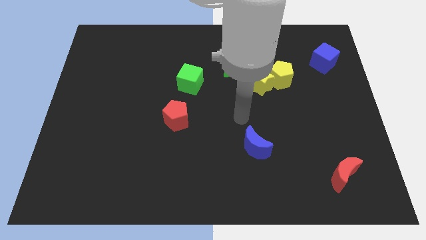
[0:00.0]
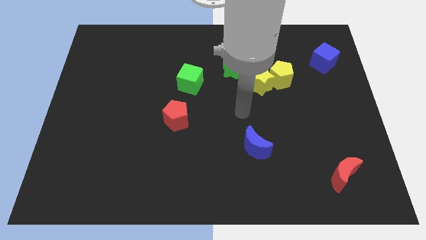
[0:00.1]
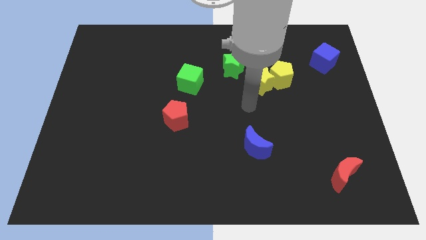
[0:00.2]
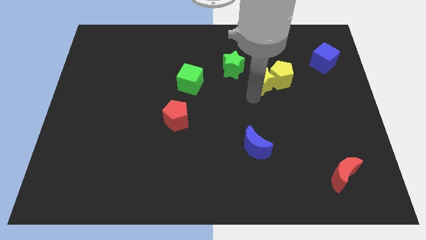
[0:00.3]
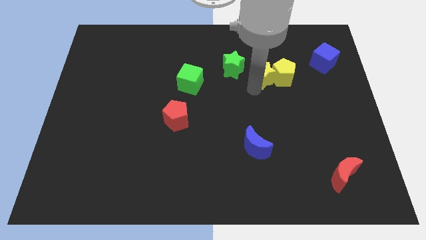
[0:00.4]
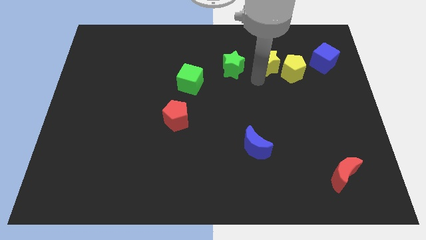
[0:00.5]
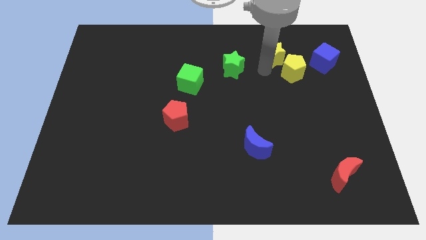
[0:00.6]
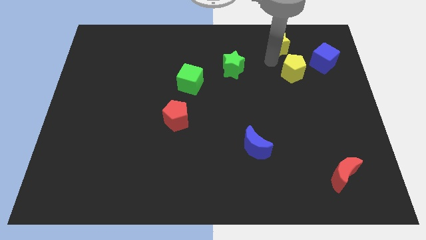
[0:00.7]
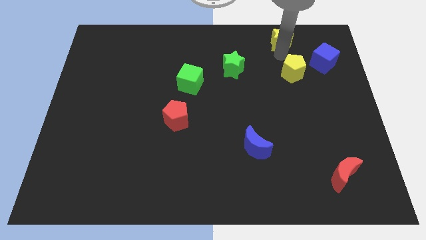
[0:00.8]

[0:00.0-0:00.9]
pull the yellow pentagon apart from the yellow star

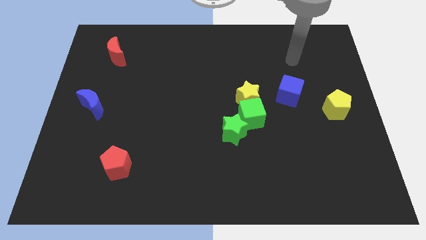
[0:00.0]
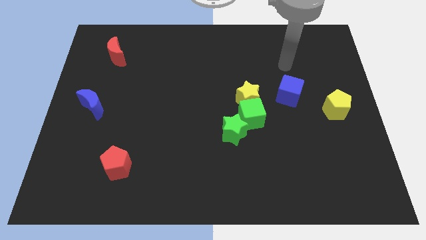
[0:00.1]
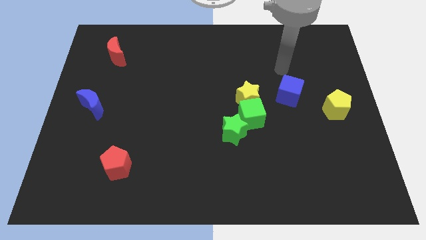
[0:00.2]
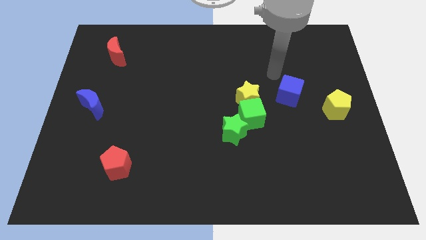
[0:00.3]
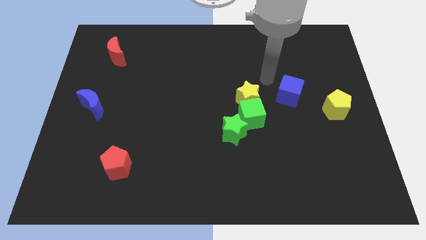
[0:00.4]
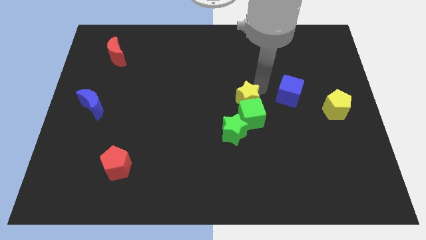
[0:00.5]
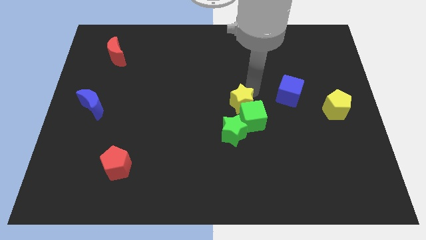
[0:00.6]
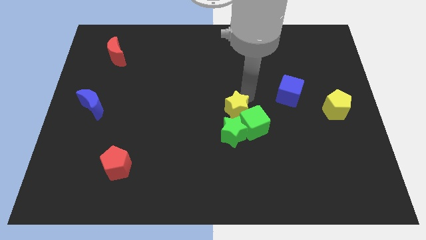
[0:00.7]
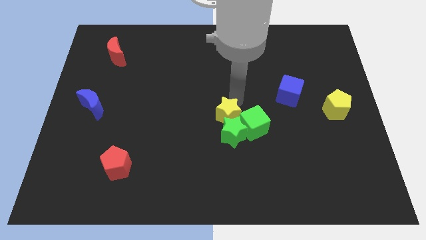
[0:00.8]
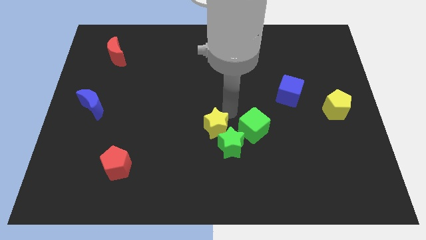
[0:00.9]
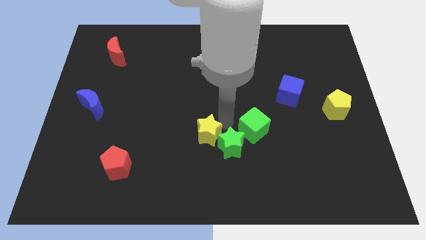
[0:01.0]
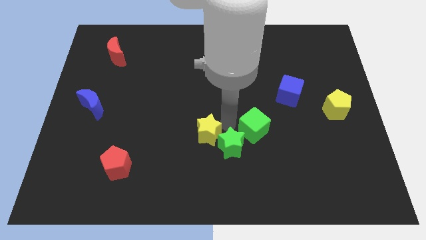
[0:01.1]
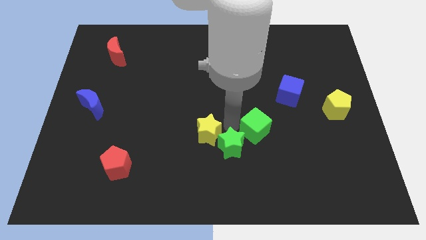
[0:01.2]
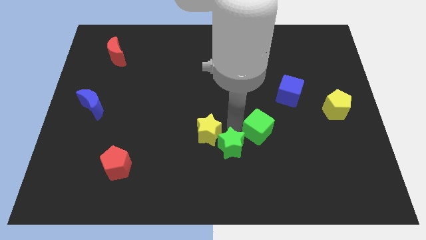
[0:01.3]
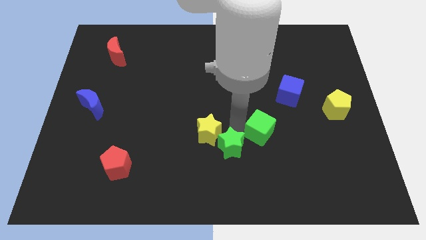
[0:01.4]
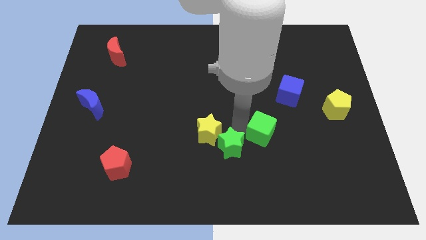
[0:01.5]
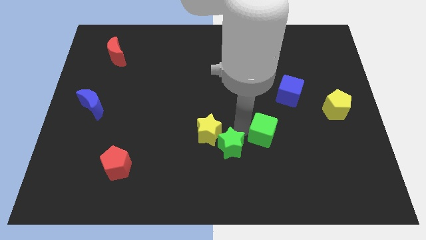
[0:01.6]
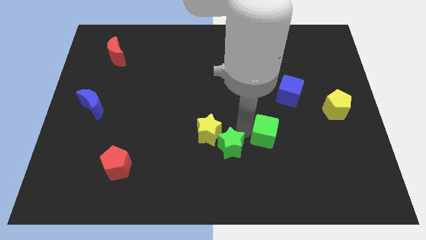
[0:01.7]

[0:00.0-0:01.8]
pull the green cube apart from the yellow star and green star

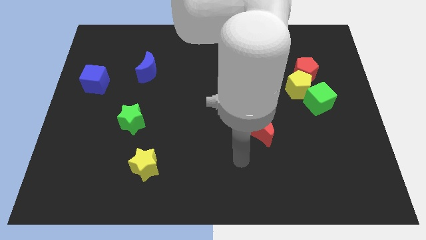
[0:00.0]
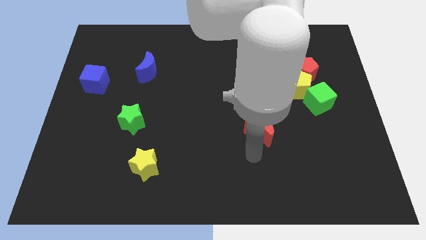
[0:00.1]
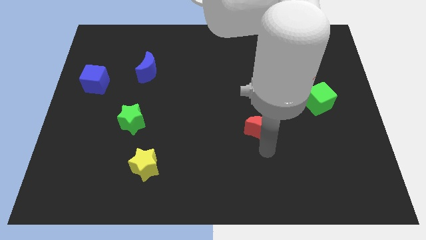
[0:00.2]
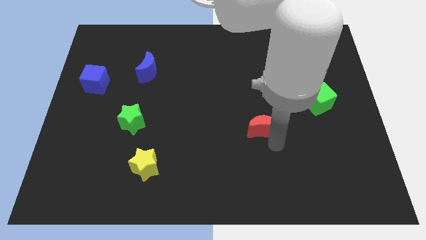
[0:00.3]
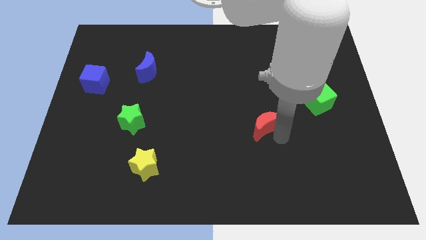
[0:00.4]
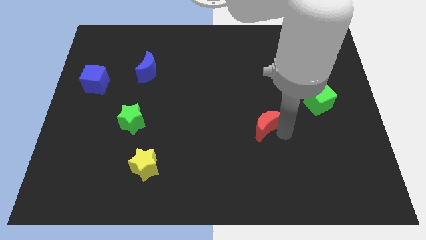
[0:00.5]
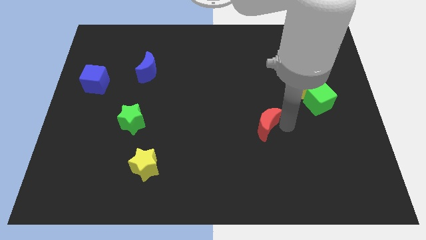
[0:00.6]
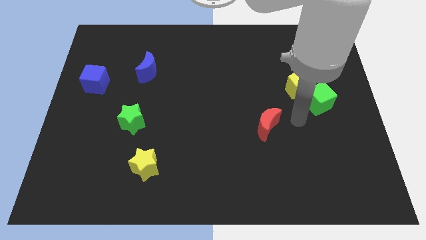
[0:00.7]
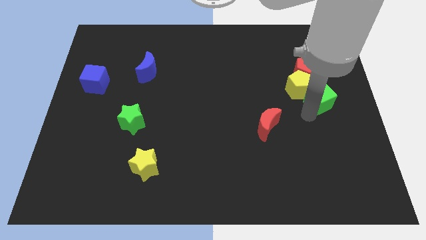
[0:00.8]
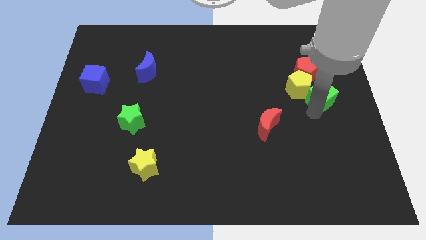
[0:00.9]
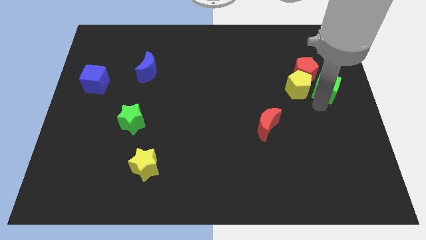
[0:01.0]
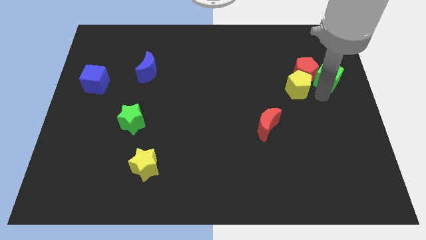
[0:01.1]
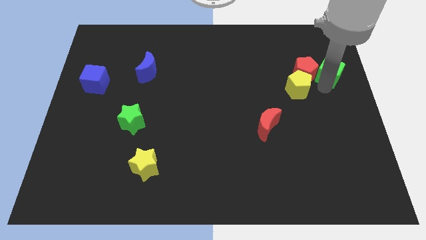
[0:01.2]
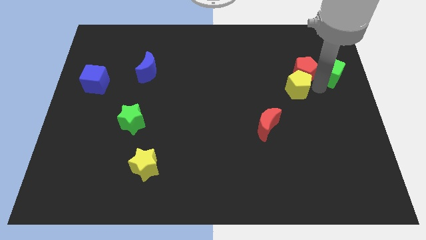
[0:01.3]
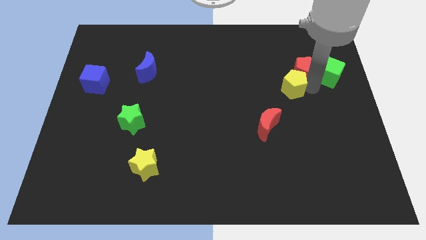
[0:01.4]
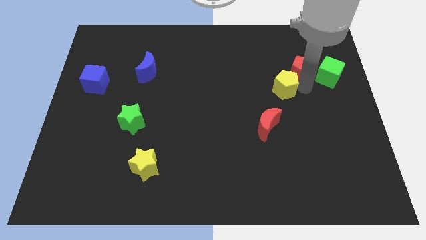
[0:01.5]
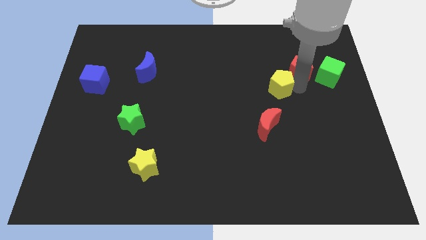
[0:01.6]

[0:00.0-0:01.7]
pull the yellow pentagon apart from the red pentagon and green cube

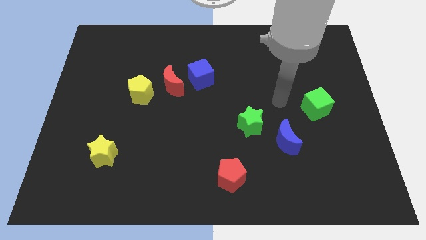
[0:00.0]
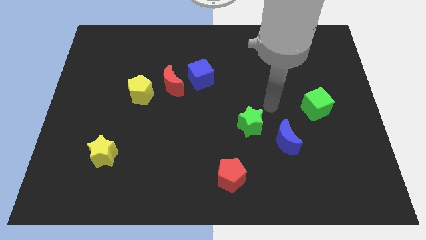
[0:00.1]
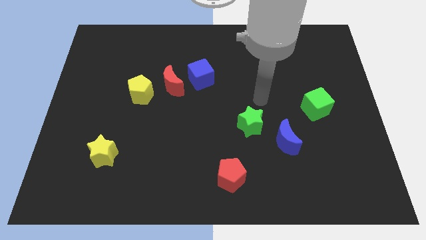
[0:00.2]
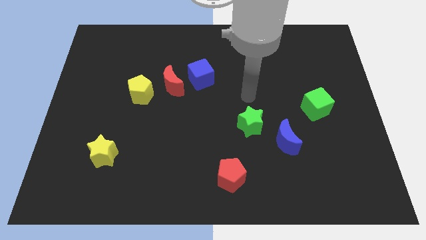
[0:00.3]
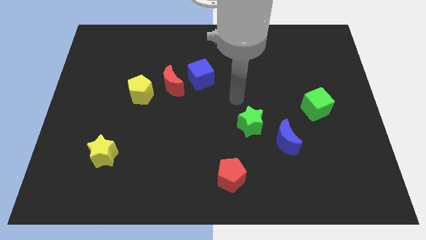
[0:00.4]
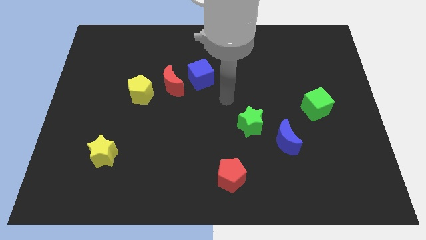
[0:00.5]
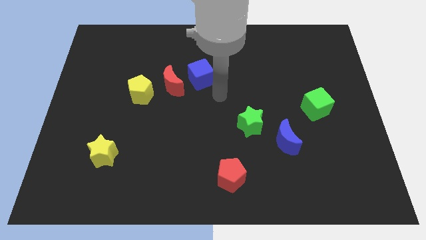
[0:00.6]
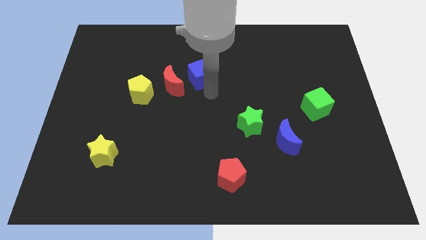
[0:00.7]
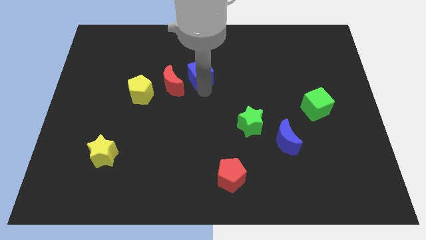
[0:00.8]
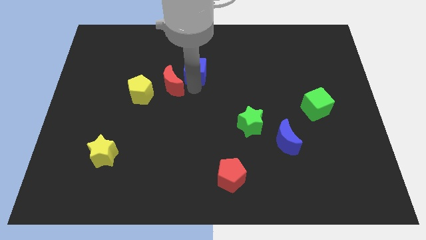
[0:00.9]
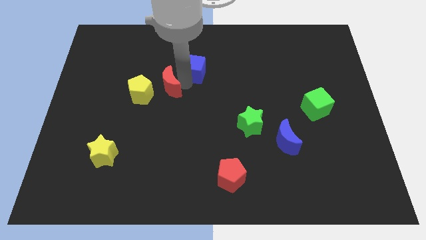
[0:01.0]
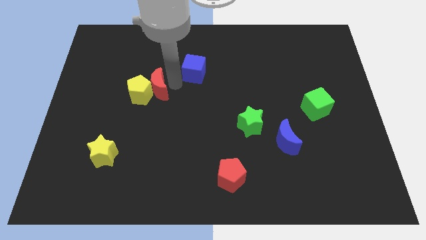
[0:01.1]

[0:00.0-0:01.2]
move the blue cube away from the red moon

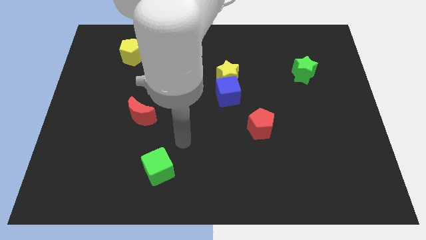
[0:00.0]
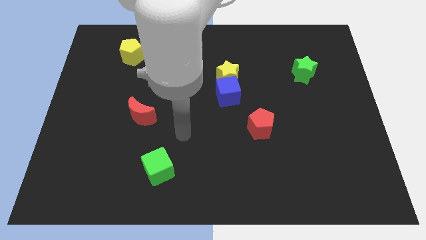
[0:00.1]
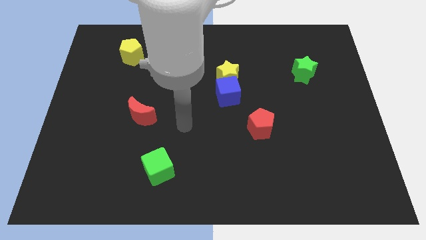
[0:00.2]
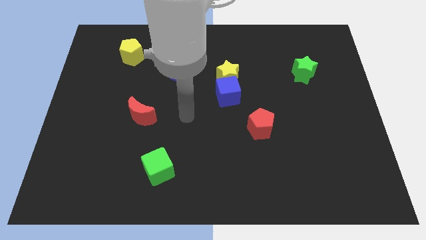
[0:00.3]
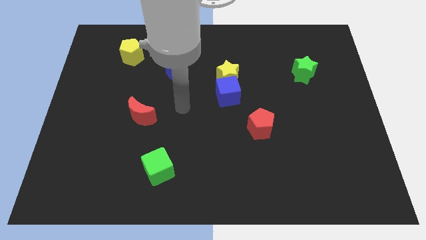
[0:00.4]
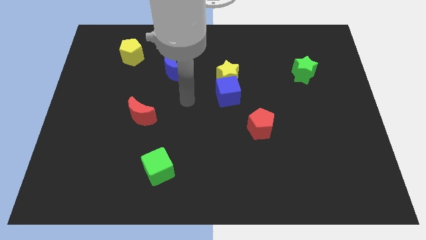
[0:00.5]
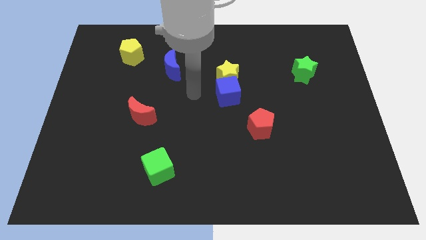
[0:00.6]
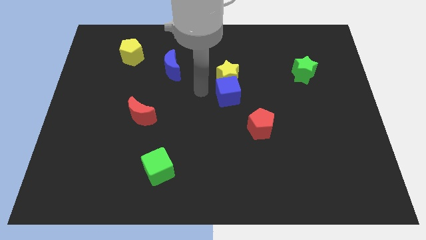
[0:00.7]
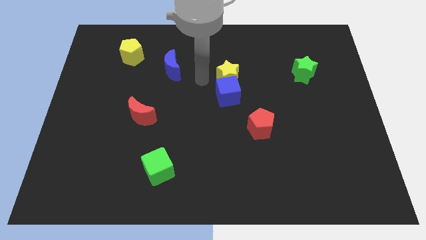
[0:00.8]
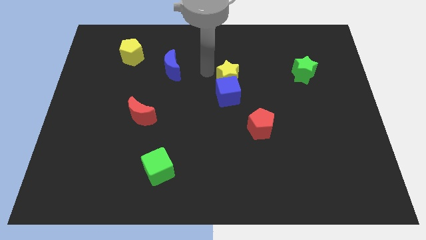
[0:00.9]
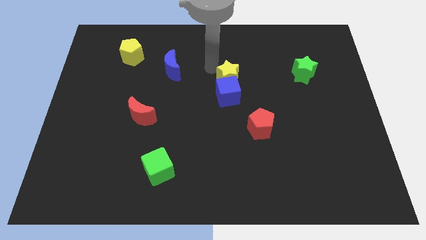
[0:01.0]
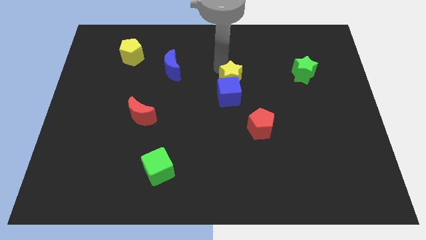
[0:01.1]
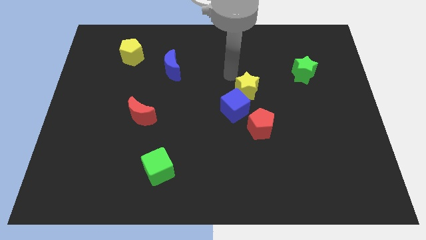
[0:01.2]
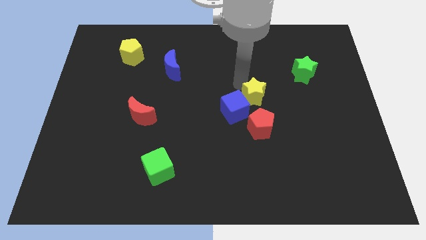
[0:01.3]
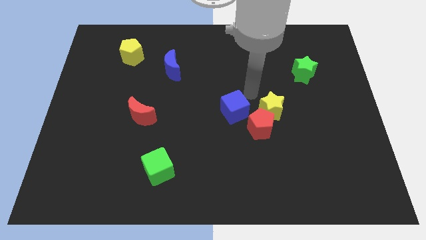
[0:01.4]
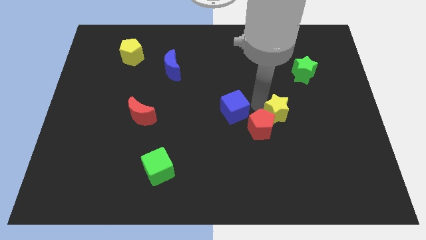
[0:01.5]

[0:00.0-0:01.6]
separate the blue cube from the yellow star

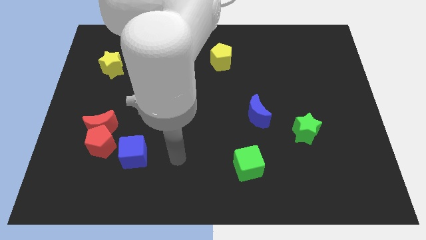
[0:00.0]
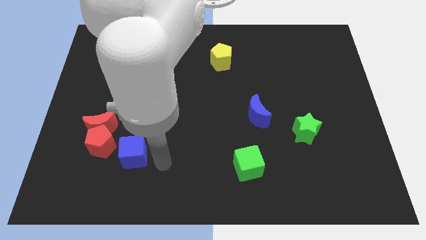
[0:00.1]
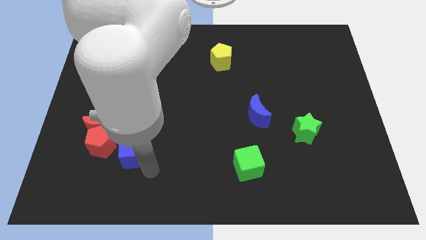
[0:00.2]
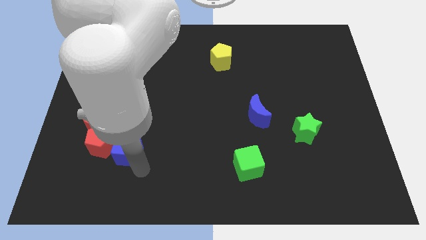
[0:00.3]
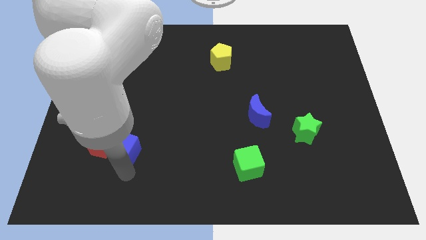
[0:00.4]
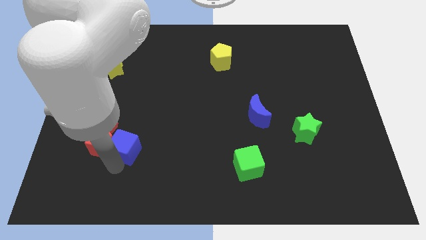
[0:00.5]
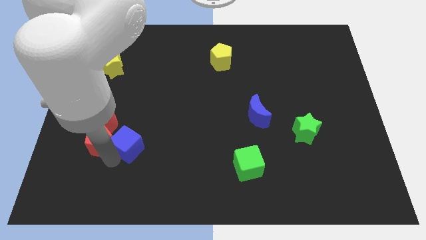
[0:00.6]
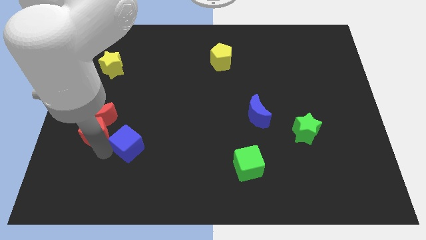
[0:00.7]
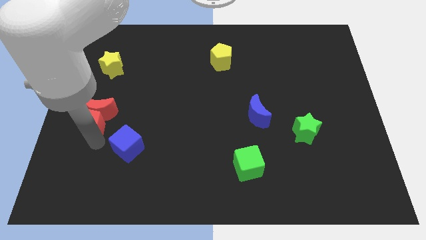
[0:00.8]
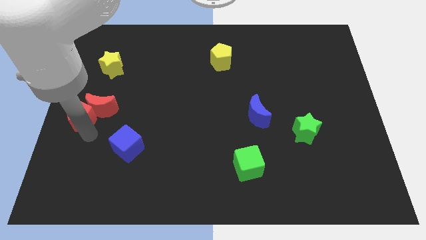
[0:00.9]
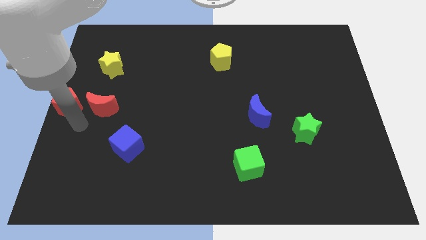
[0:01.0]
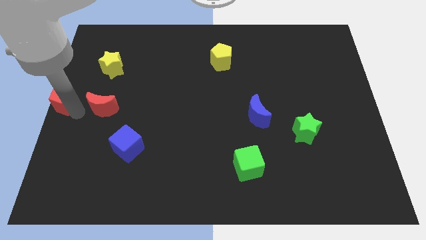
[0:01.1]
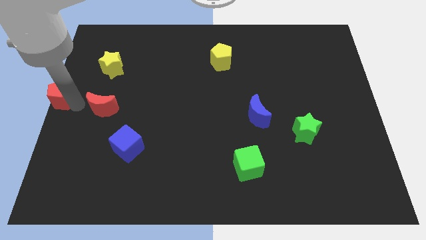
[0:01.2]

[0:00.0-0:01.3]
move the red moon away from the red pentagon

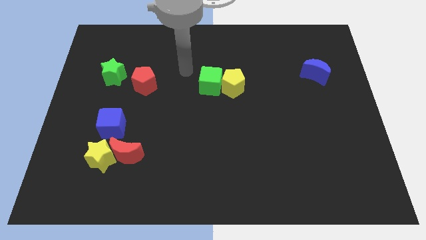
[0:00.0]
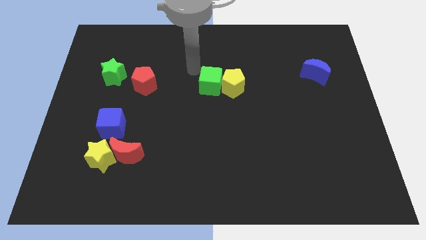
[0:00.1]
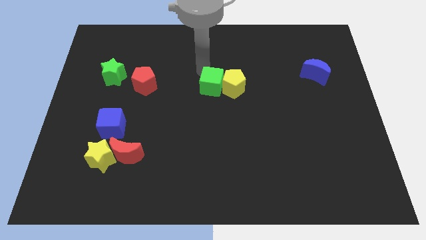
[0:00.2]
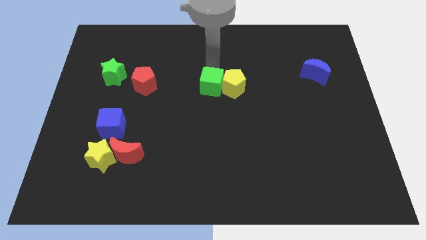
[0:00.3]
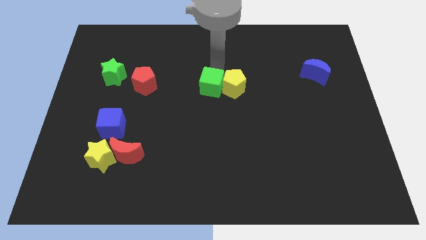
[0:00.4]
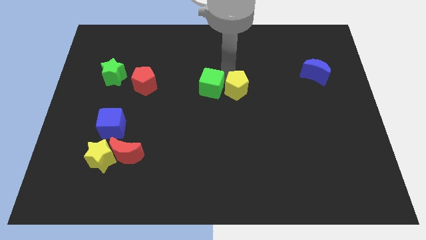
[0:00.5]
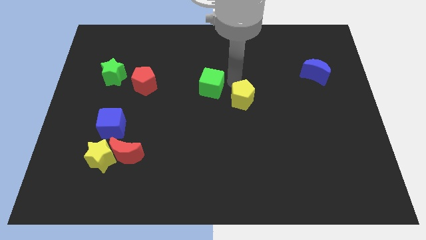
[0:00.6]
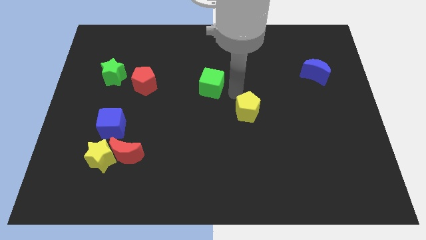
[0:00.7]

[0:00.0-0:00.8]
separate the green cube from the yellow pentagon
